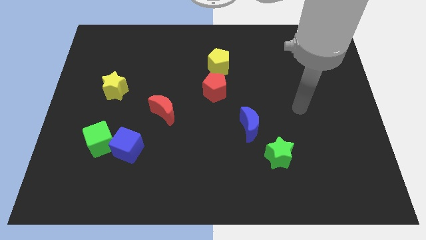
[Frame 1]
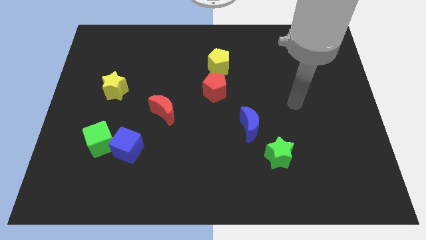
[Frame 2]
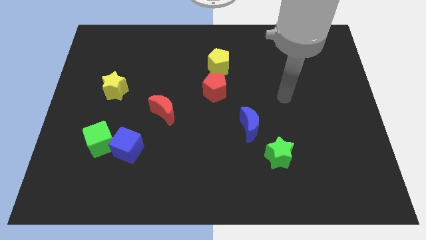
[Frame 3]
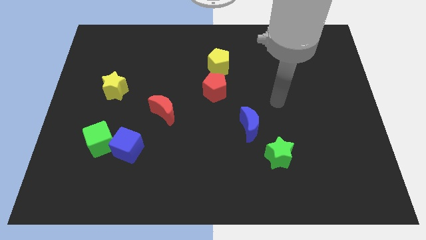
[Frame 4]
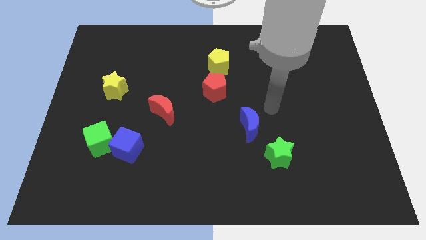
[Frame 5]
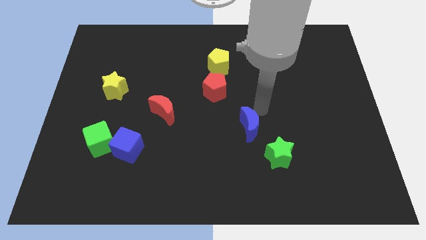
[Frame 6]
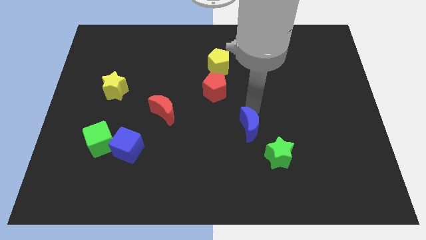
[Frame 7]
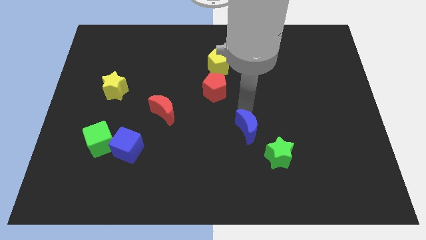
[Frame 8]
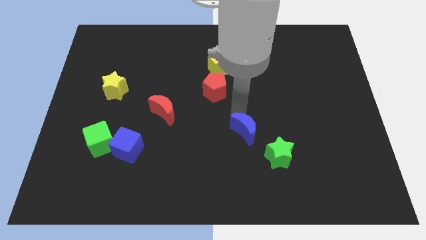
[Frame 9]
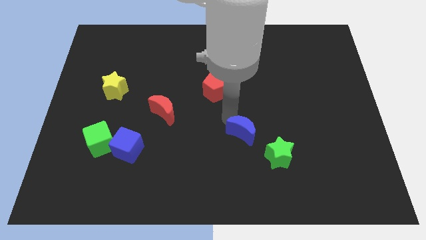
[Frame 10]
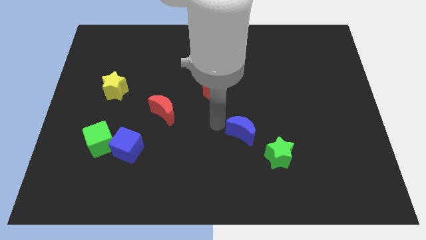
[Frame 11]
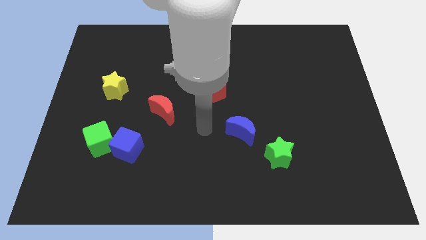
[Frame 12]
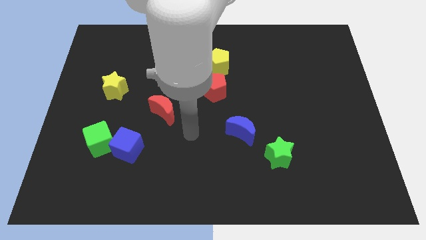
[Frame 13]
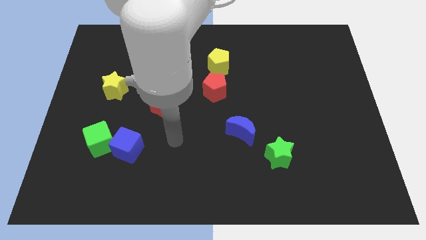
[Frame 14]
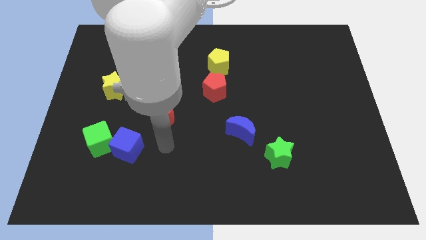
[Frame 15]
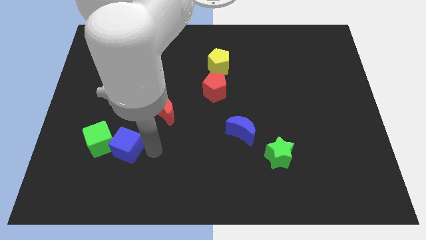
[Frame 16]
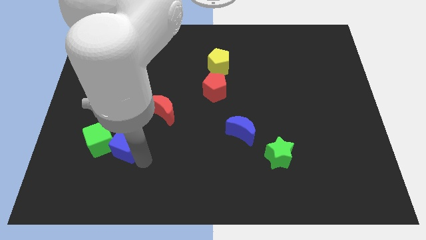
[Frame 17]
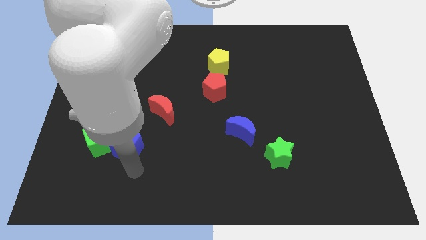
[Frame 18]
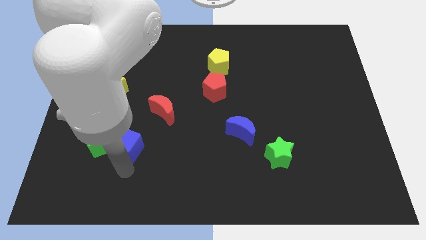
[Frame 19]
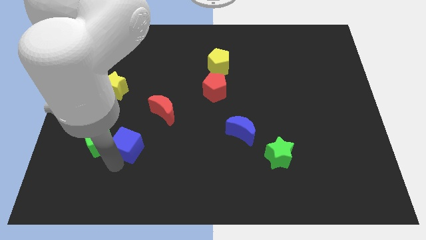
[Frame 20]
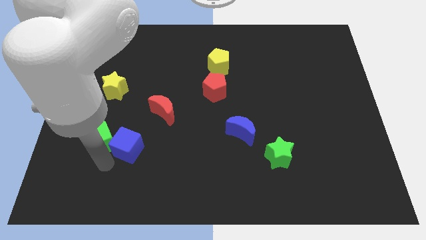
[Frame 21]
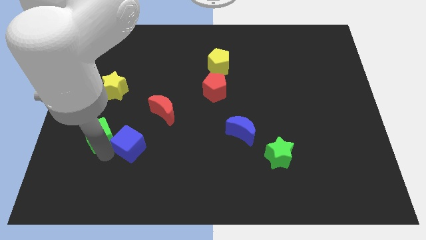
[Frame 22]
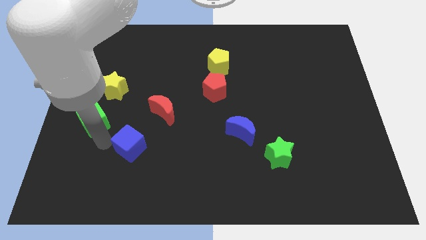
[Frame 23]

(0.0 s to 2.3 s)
move the blue cube away from the green cube

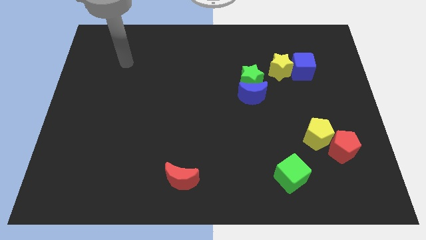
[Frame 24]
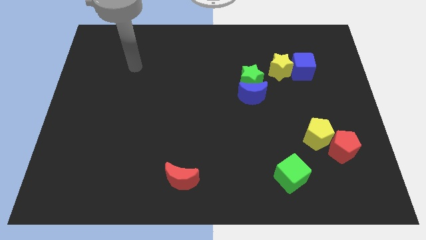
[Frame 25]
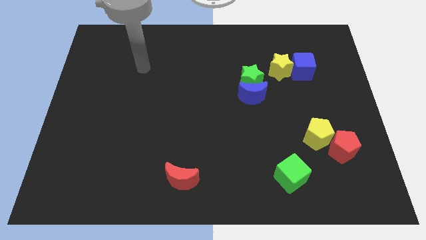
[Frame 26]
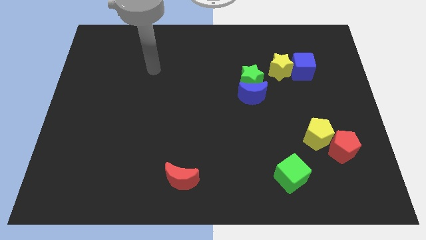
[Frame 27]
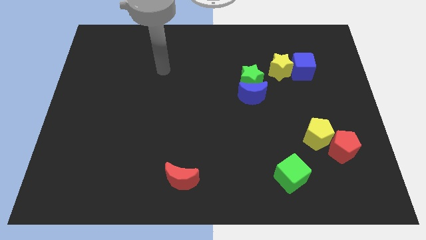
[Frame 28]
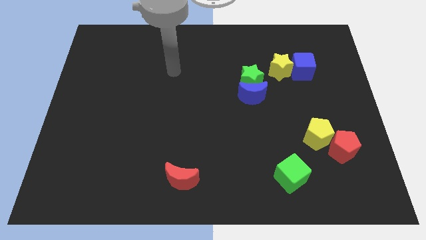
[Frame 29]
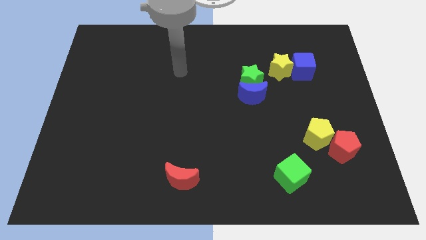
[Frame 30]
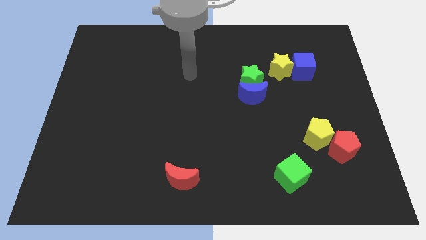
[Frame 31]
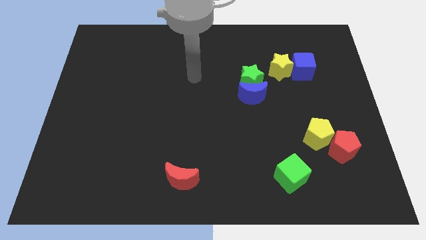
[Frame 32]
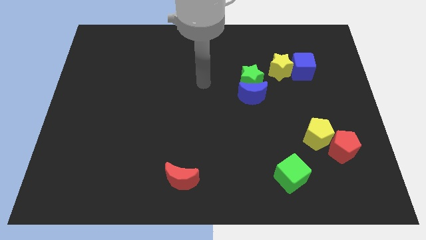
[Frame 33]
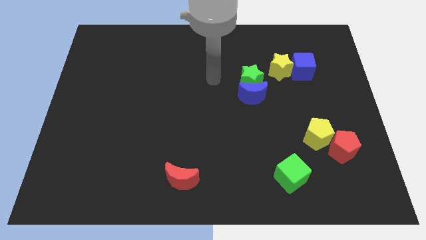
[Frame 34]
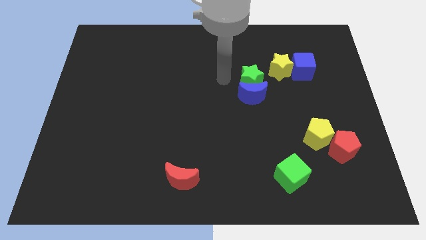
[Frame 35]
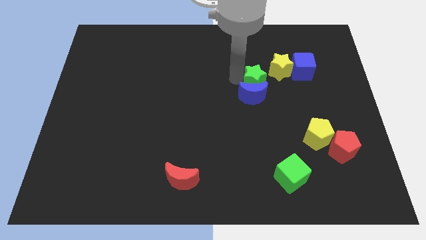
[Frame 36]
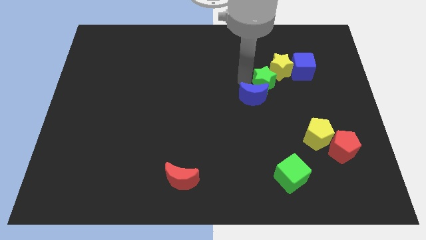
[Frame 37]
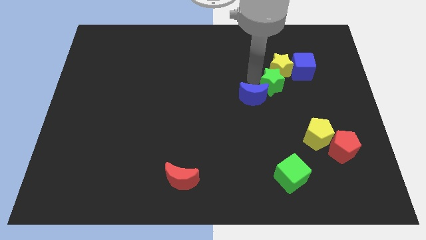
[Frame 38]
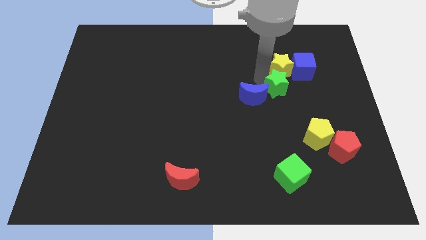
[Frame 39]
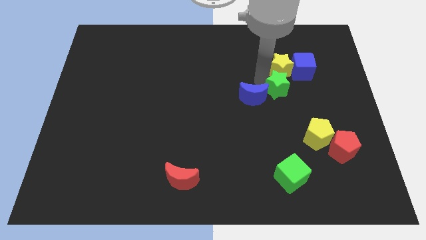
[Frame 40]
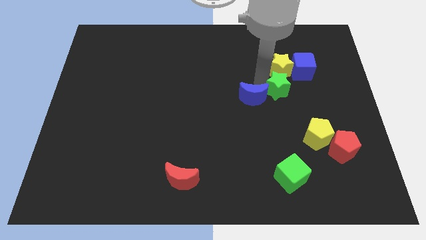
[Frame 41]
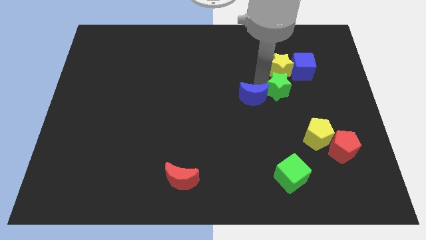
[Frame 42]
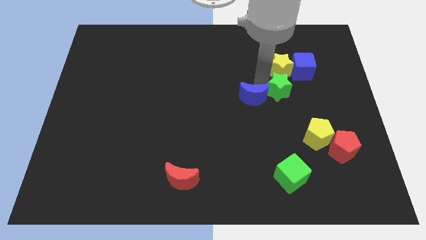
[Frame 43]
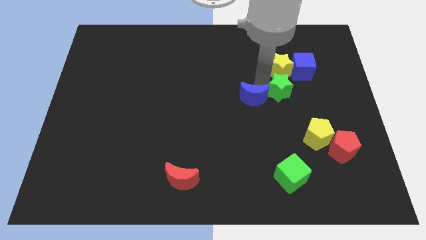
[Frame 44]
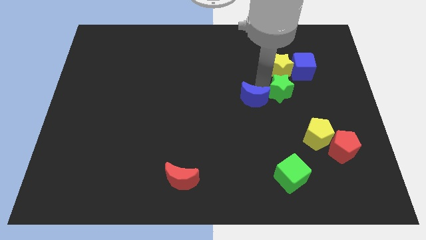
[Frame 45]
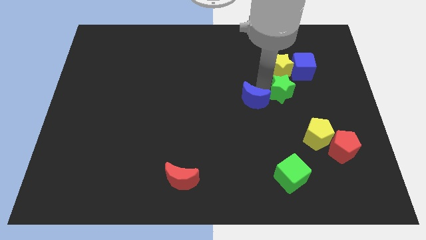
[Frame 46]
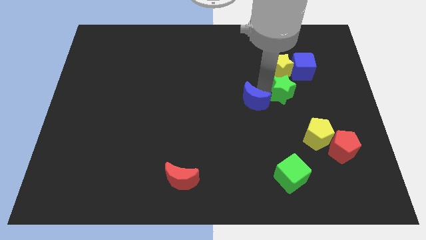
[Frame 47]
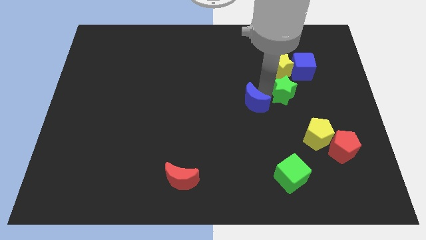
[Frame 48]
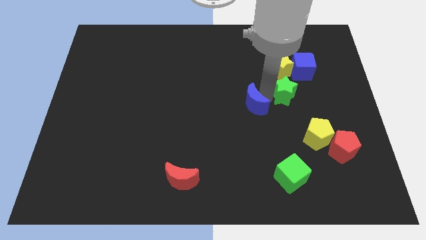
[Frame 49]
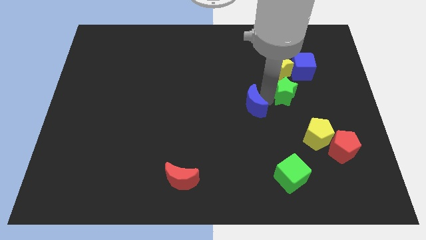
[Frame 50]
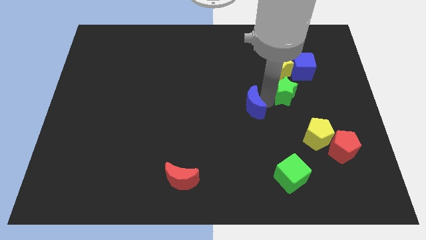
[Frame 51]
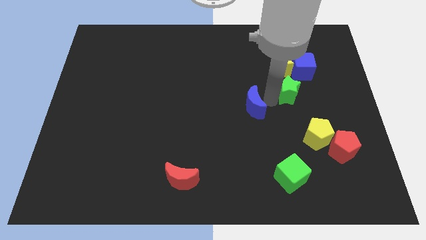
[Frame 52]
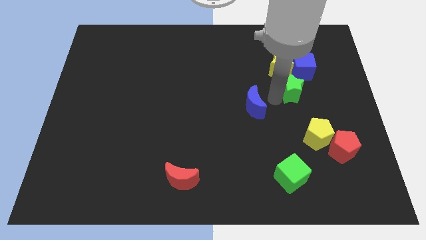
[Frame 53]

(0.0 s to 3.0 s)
pull the blue moon apart from the green star

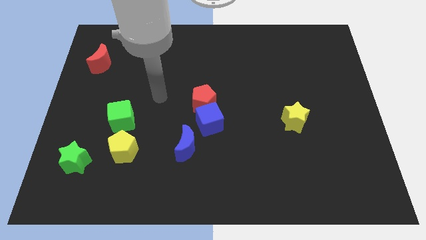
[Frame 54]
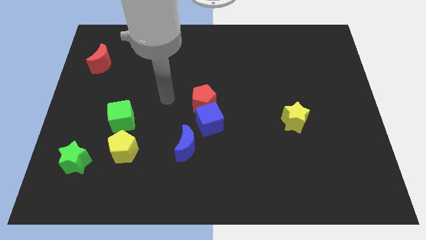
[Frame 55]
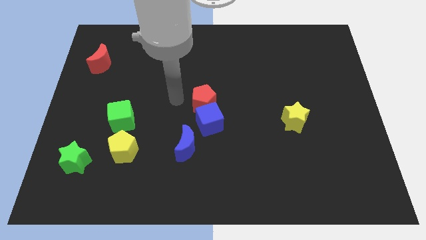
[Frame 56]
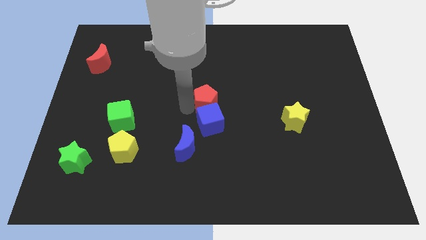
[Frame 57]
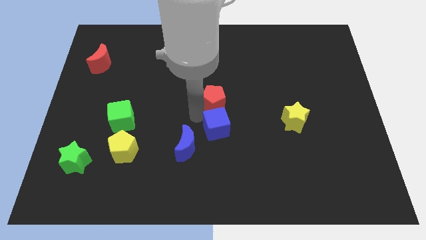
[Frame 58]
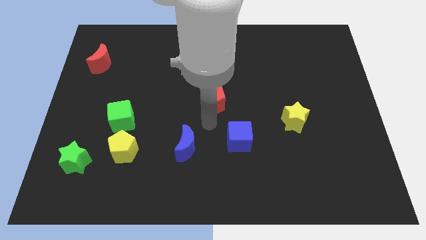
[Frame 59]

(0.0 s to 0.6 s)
separate the red pentagon from the blue cube

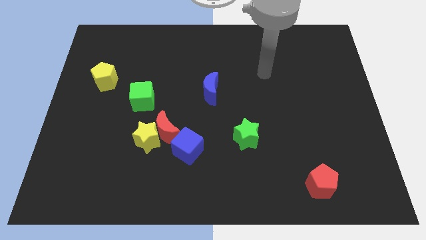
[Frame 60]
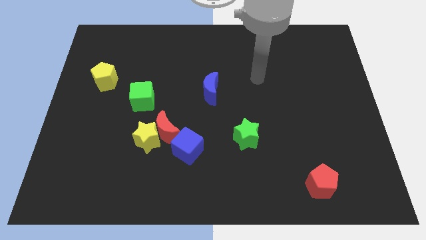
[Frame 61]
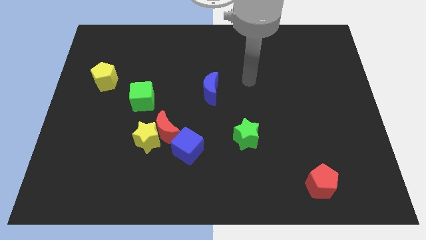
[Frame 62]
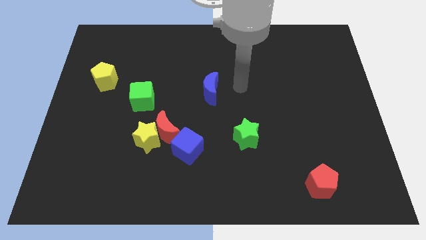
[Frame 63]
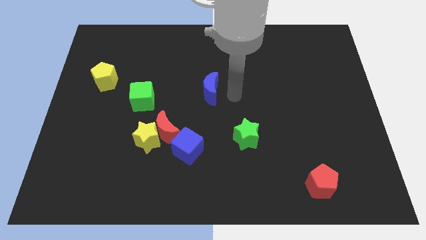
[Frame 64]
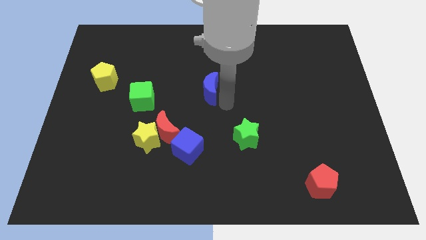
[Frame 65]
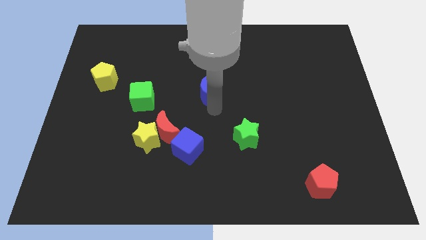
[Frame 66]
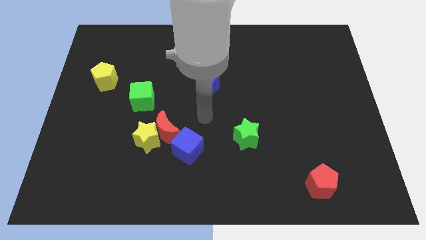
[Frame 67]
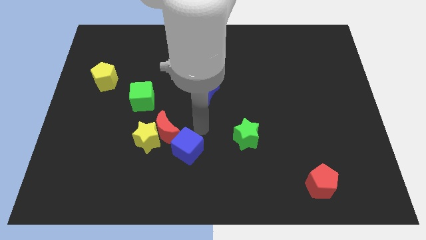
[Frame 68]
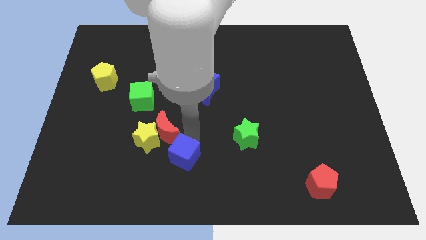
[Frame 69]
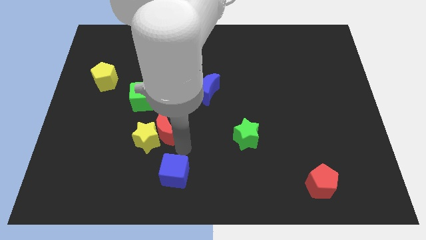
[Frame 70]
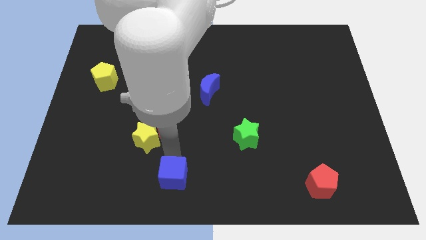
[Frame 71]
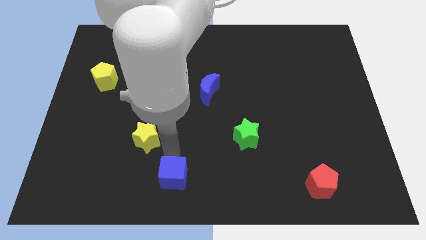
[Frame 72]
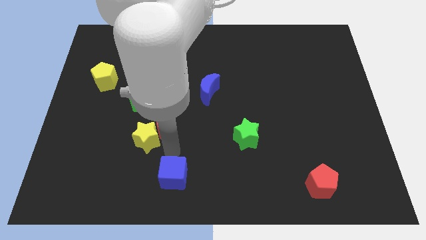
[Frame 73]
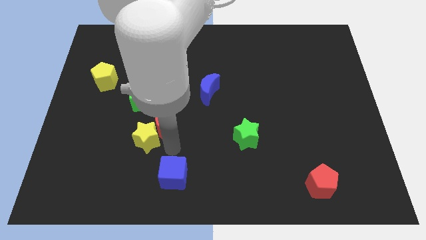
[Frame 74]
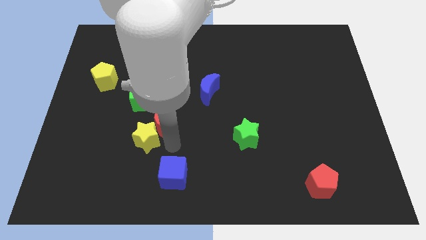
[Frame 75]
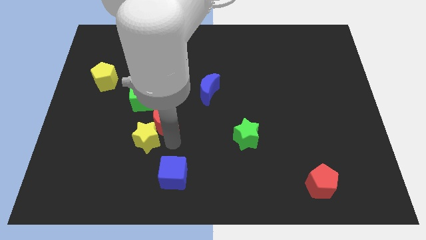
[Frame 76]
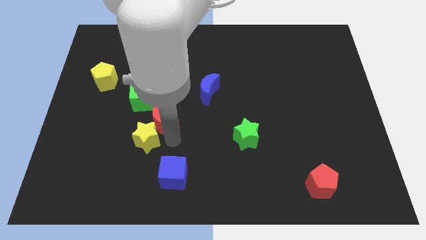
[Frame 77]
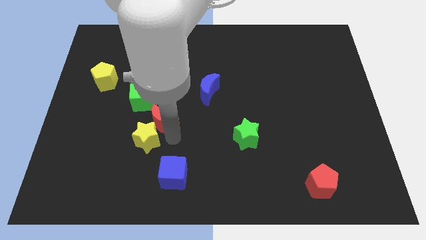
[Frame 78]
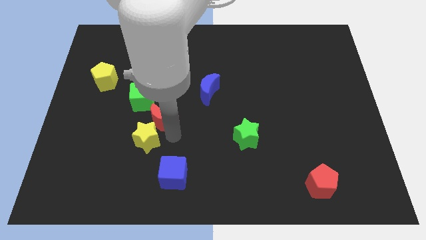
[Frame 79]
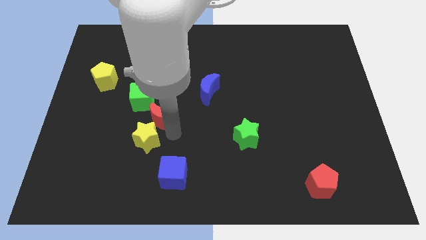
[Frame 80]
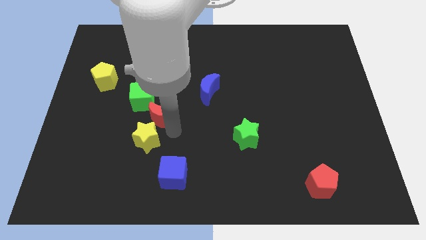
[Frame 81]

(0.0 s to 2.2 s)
separate the red moon from the yellow star and blue cube

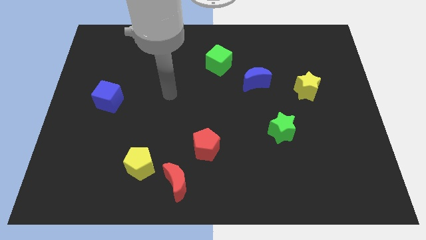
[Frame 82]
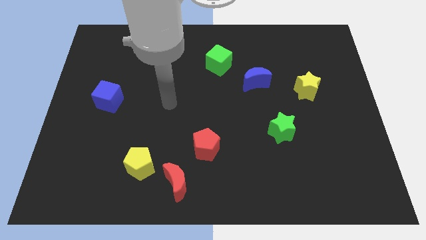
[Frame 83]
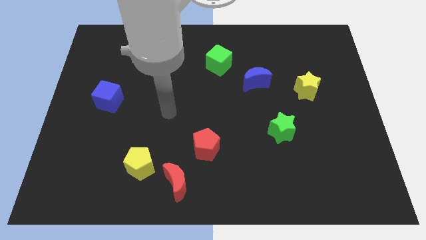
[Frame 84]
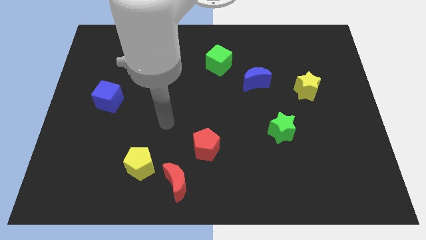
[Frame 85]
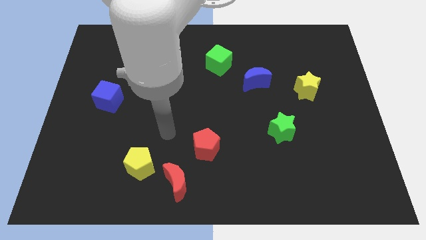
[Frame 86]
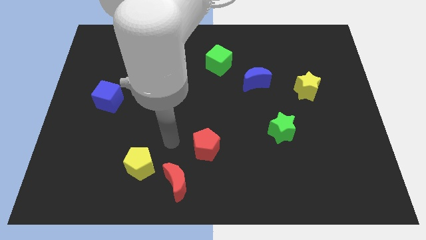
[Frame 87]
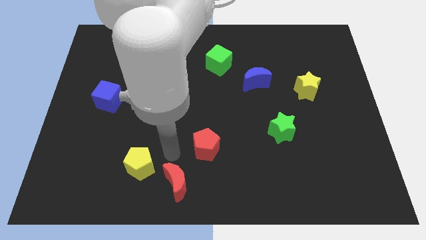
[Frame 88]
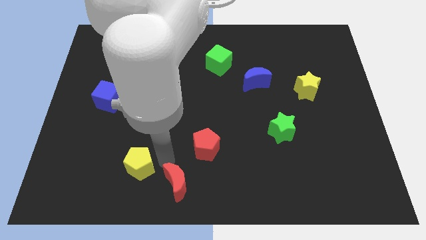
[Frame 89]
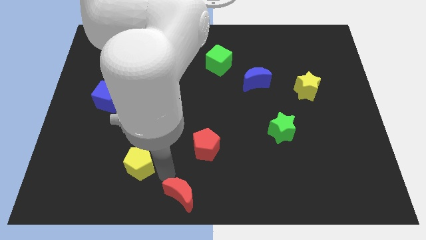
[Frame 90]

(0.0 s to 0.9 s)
pull the yellow pentagon apart from the red moon

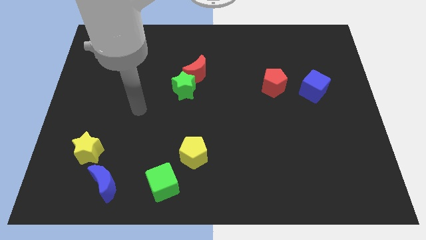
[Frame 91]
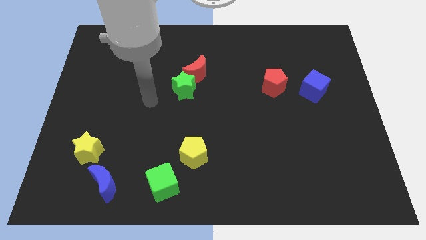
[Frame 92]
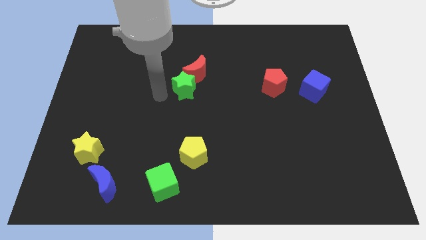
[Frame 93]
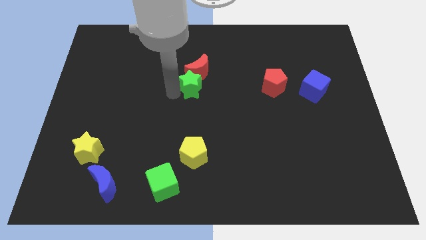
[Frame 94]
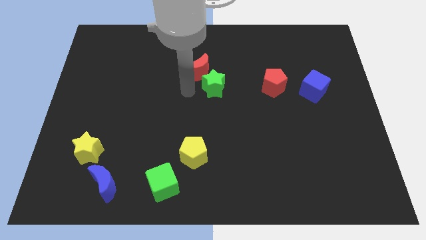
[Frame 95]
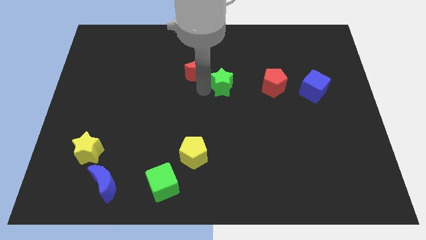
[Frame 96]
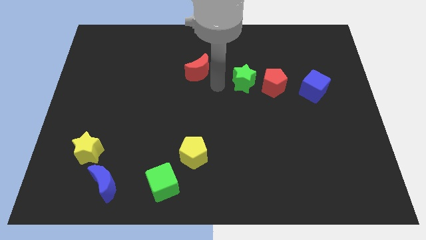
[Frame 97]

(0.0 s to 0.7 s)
move the red moon away from the green star
